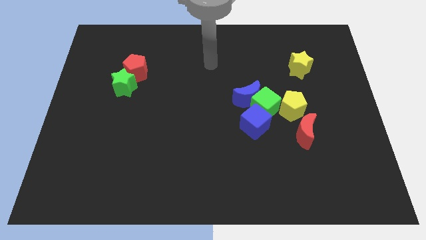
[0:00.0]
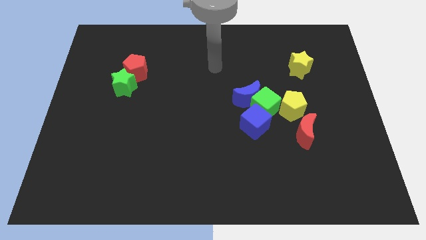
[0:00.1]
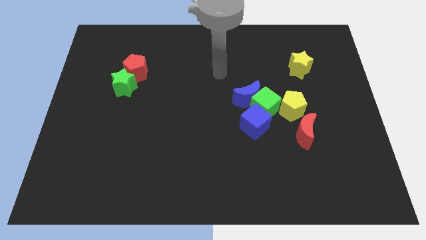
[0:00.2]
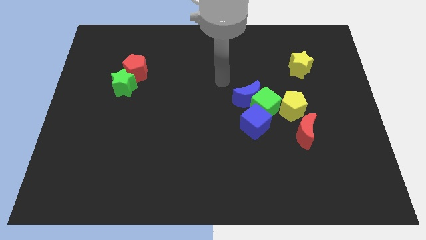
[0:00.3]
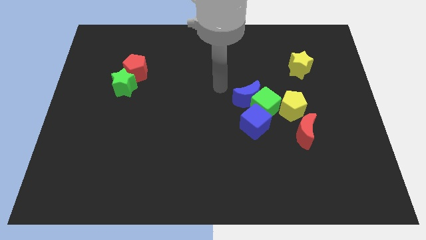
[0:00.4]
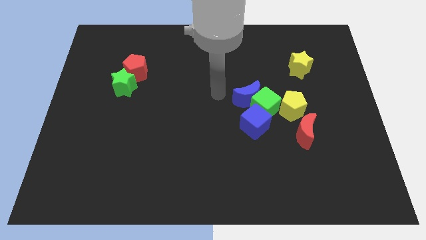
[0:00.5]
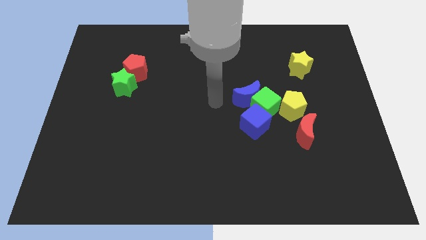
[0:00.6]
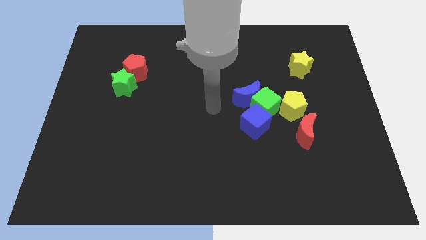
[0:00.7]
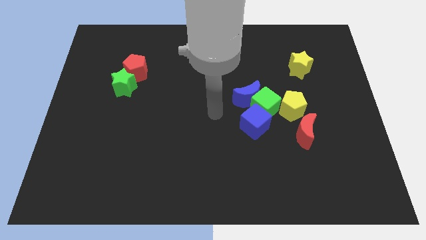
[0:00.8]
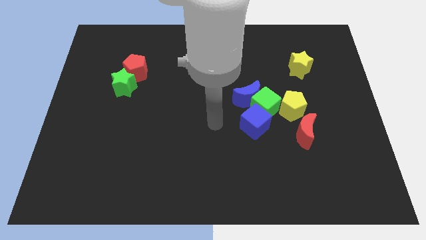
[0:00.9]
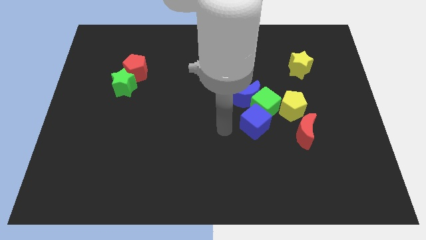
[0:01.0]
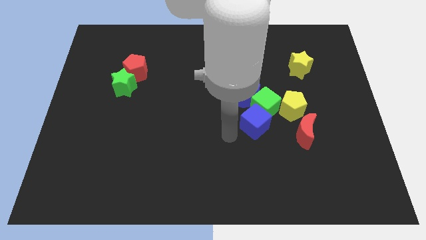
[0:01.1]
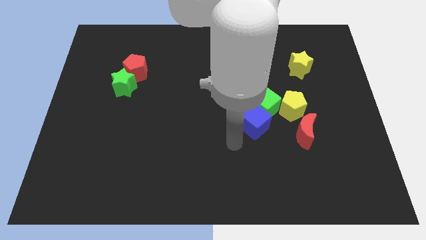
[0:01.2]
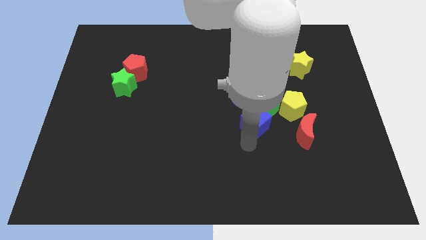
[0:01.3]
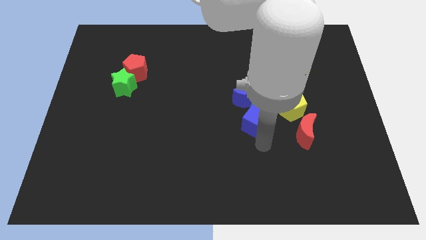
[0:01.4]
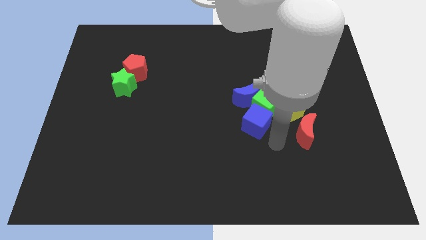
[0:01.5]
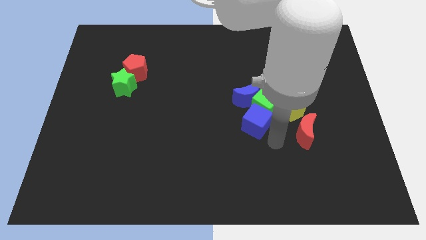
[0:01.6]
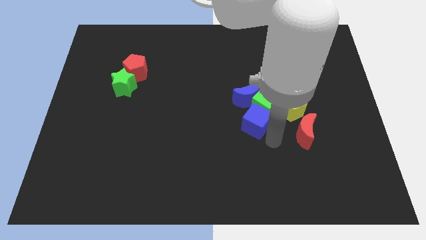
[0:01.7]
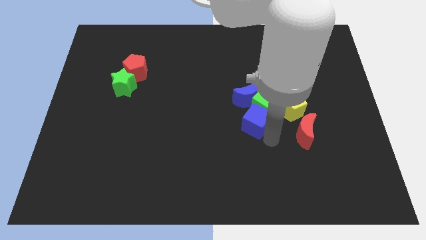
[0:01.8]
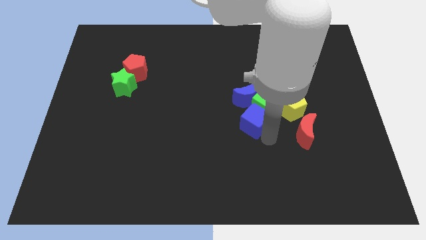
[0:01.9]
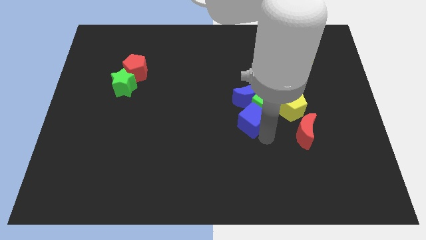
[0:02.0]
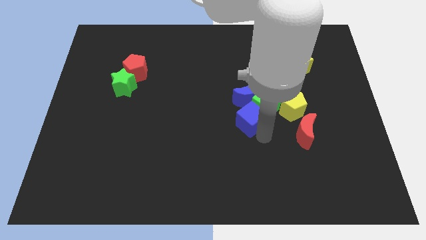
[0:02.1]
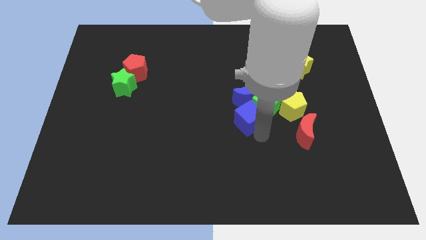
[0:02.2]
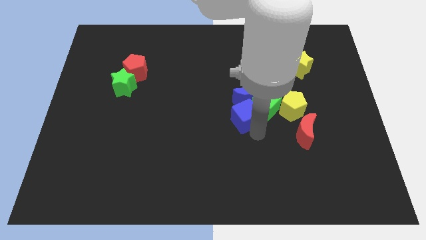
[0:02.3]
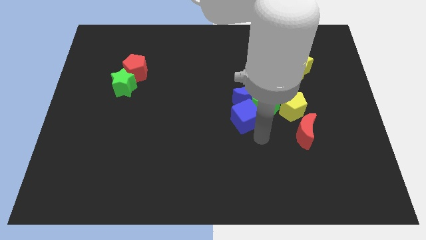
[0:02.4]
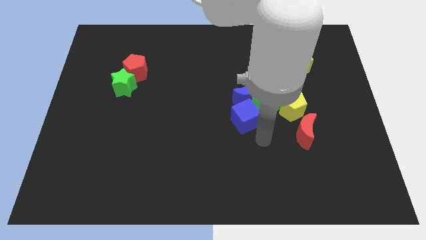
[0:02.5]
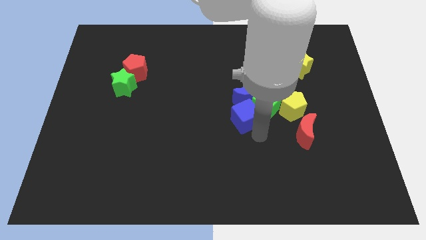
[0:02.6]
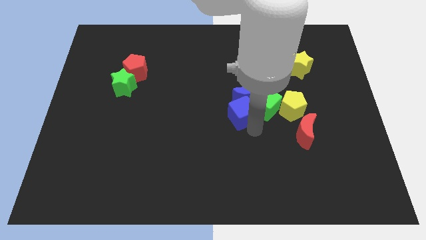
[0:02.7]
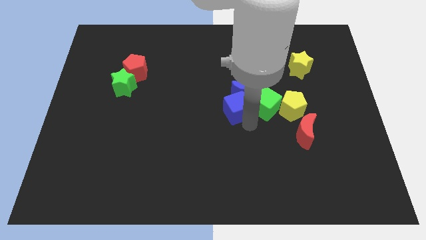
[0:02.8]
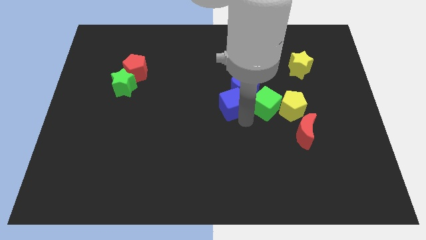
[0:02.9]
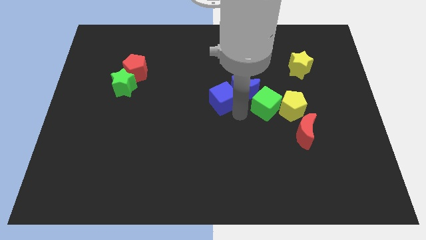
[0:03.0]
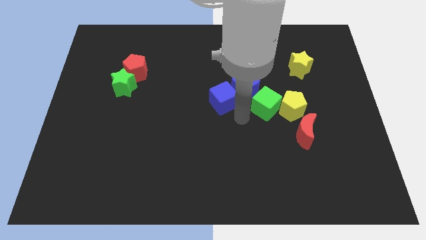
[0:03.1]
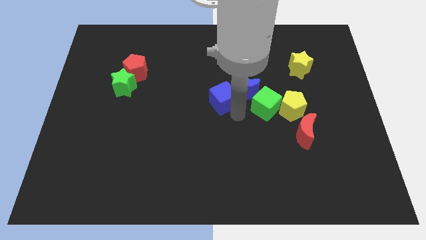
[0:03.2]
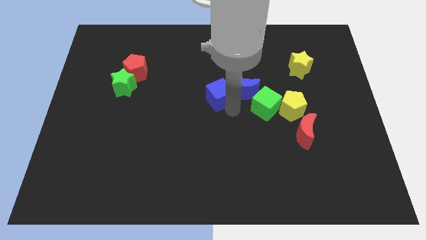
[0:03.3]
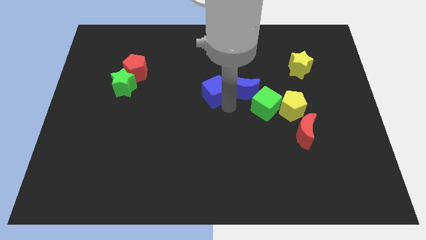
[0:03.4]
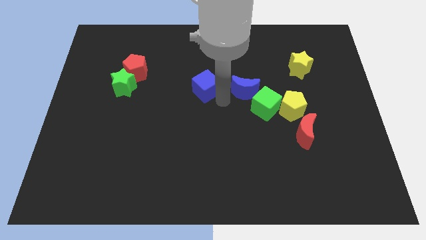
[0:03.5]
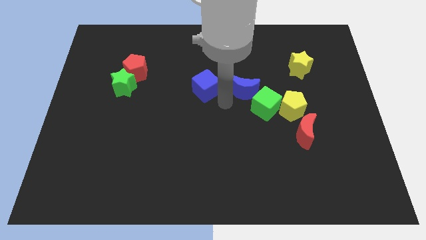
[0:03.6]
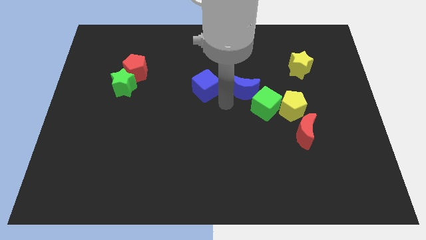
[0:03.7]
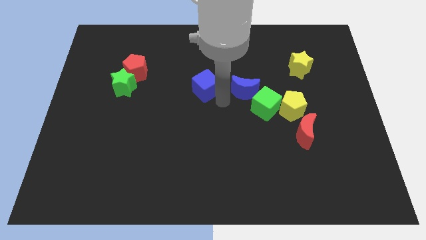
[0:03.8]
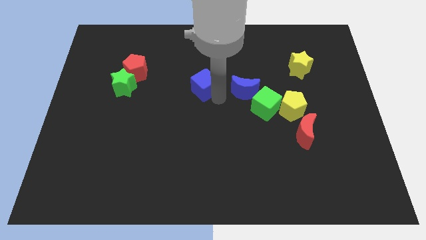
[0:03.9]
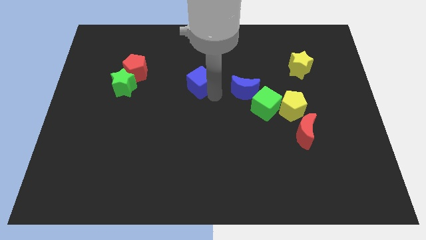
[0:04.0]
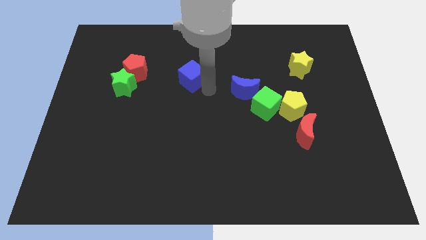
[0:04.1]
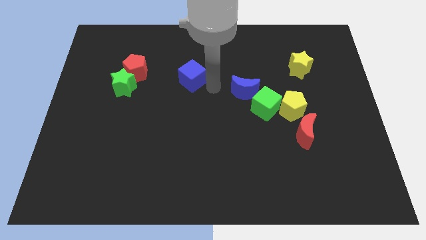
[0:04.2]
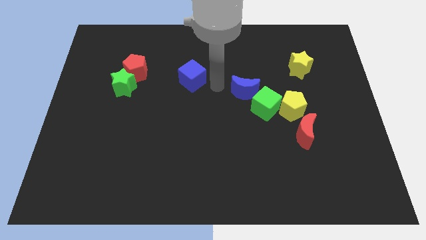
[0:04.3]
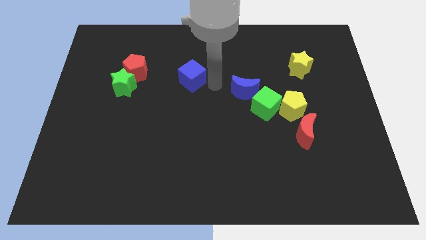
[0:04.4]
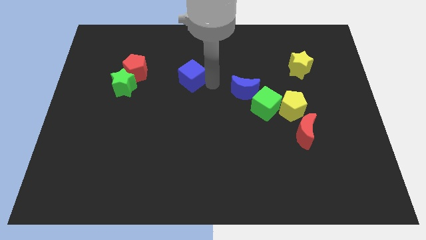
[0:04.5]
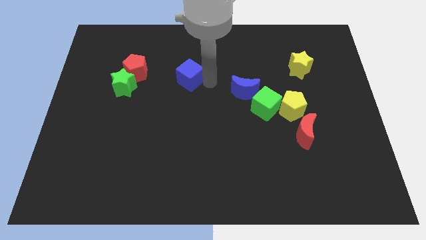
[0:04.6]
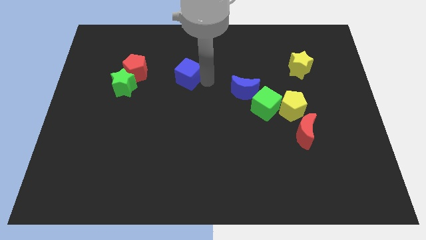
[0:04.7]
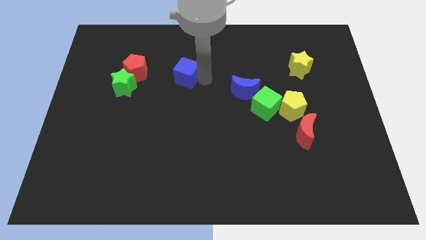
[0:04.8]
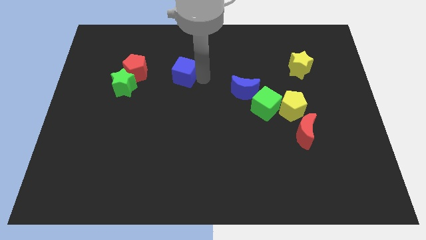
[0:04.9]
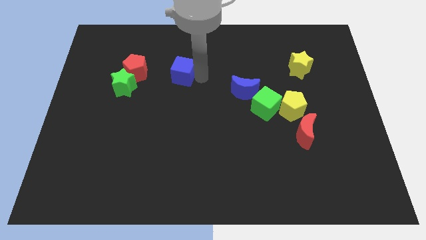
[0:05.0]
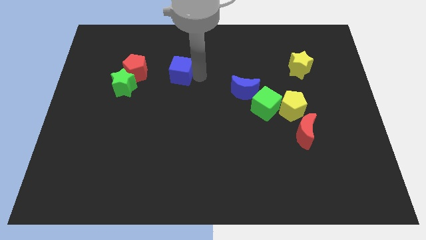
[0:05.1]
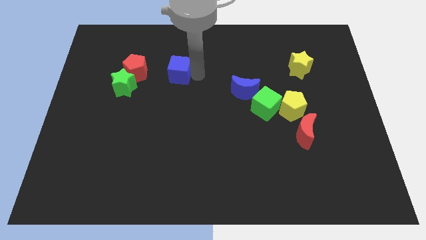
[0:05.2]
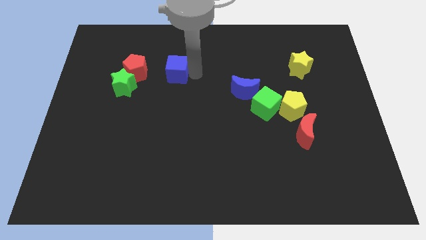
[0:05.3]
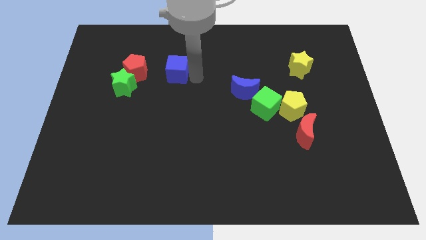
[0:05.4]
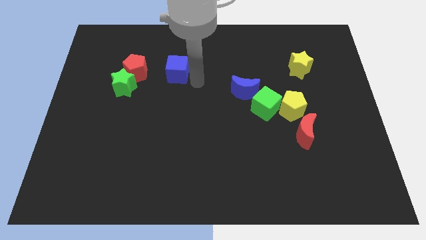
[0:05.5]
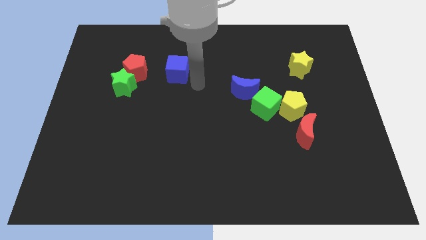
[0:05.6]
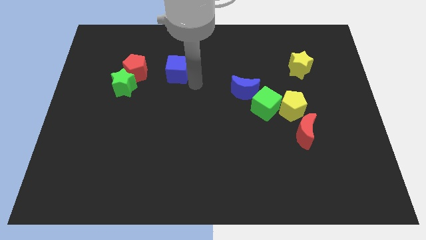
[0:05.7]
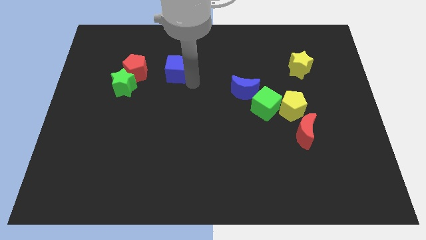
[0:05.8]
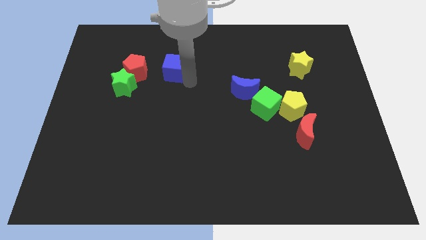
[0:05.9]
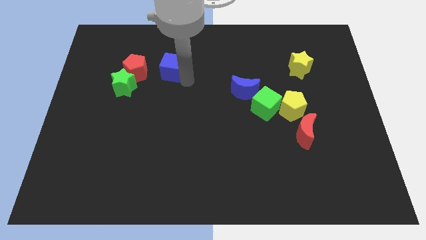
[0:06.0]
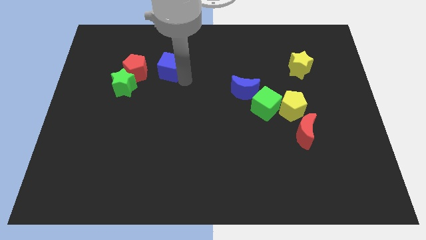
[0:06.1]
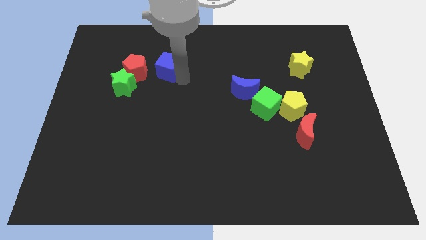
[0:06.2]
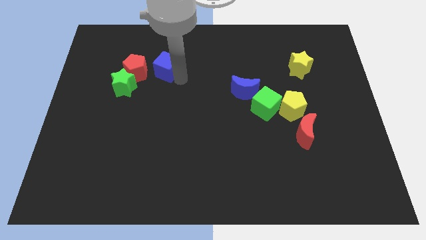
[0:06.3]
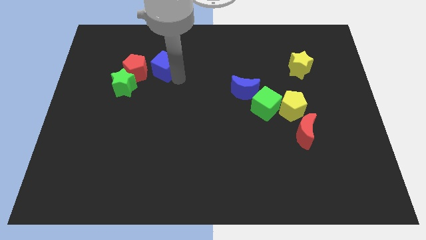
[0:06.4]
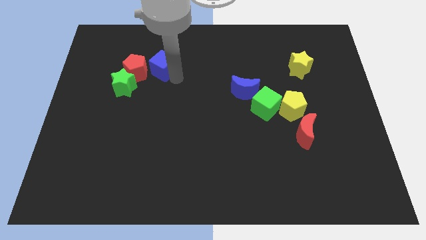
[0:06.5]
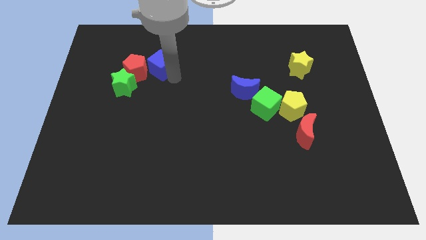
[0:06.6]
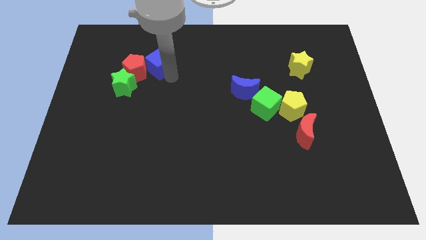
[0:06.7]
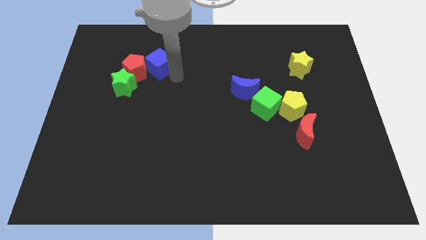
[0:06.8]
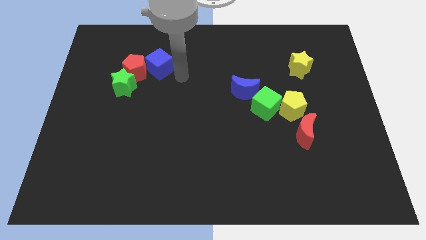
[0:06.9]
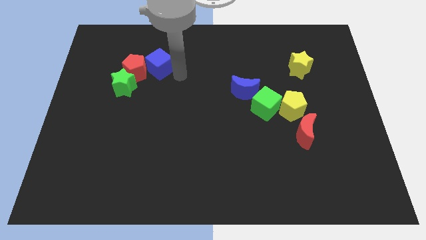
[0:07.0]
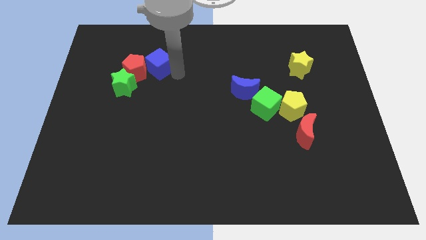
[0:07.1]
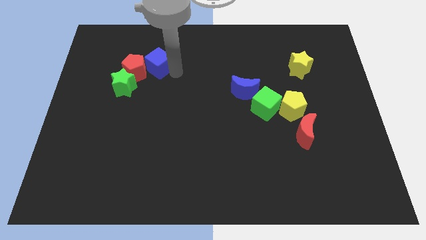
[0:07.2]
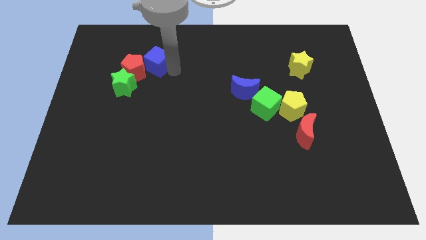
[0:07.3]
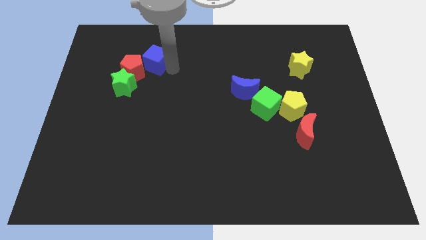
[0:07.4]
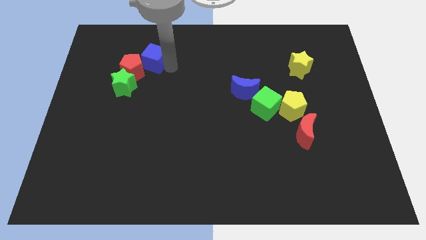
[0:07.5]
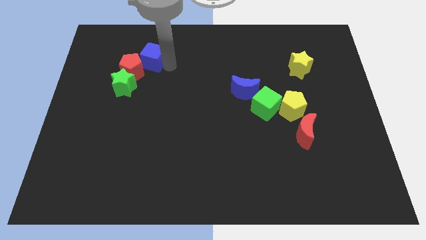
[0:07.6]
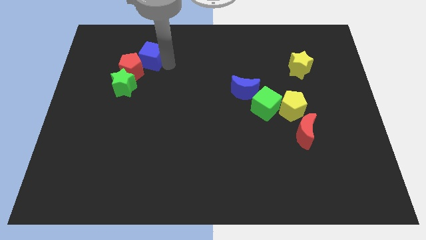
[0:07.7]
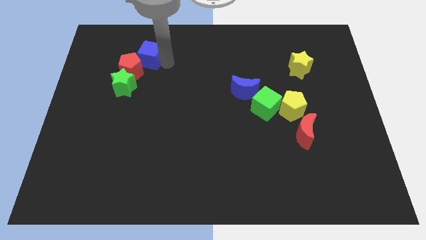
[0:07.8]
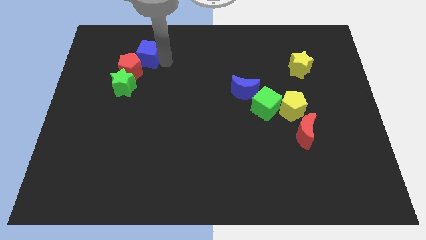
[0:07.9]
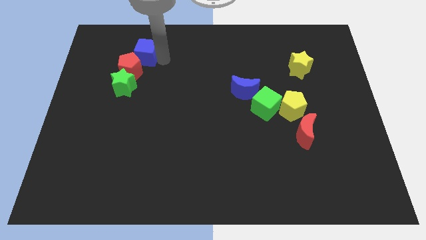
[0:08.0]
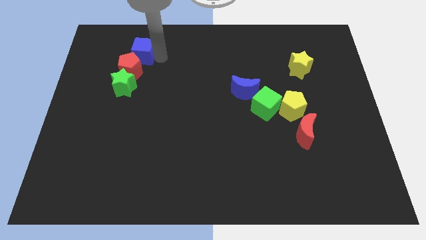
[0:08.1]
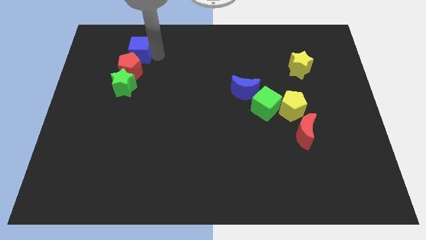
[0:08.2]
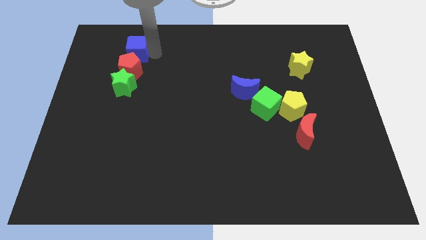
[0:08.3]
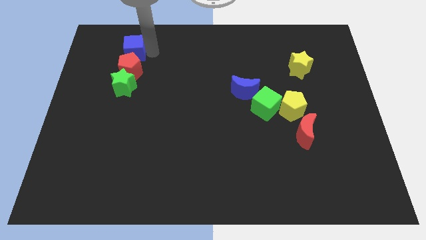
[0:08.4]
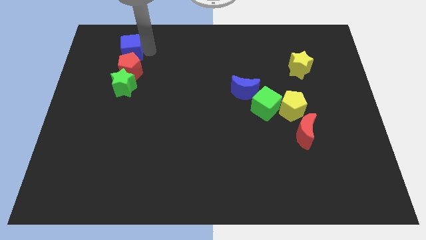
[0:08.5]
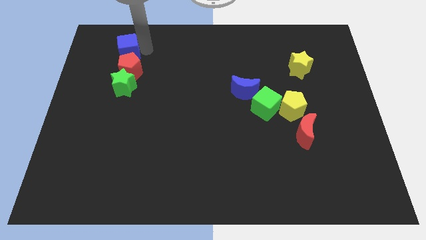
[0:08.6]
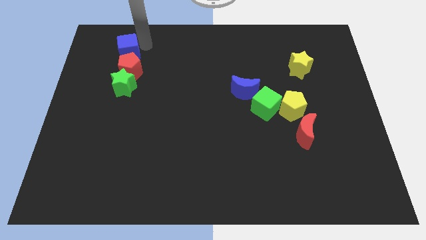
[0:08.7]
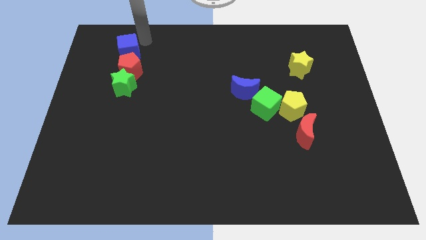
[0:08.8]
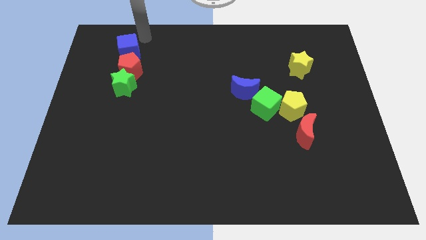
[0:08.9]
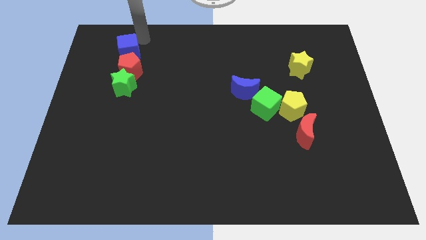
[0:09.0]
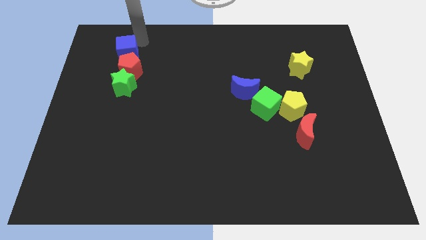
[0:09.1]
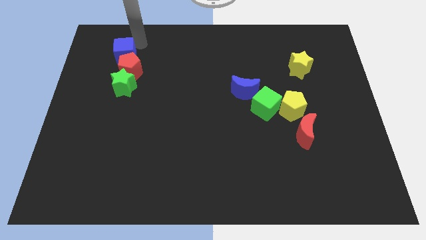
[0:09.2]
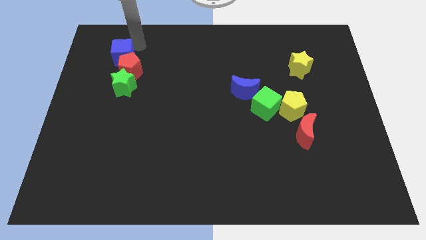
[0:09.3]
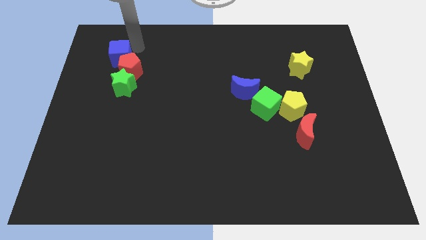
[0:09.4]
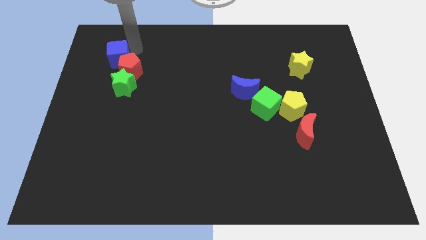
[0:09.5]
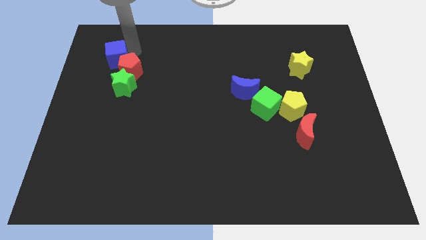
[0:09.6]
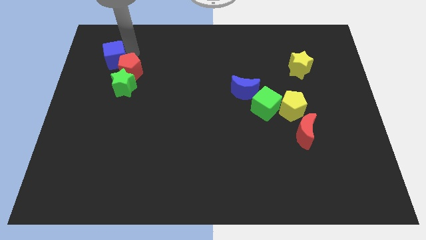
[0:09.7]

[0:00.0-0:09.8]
slide the blue cube to the top left side of the green star
